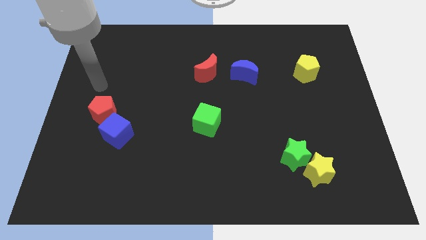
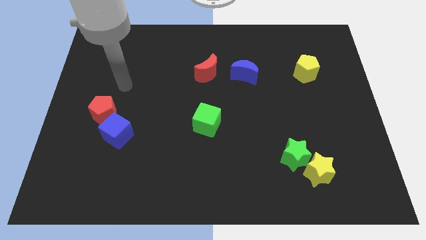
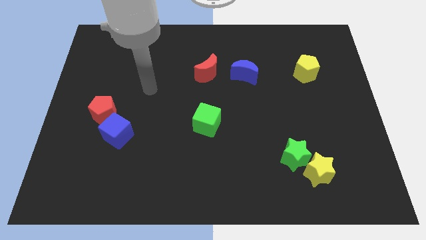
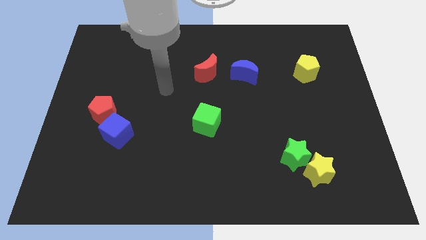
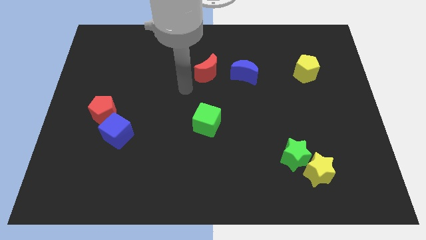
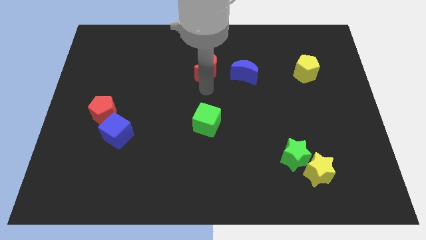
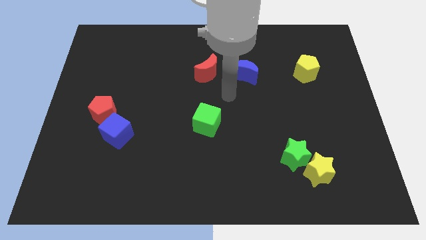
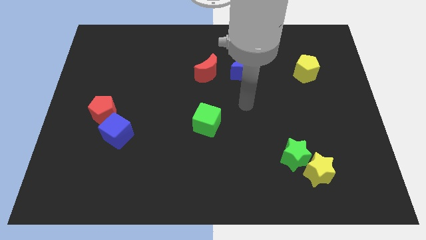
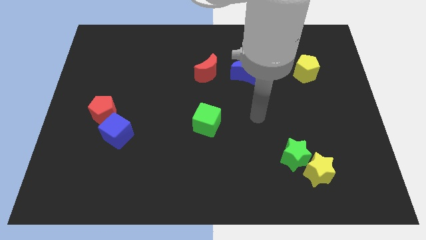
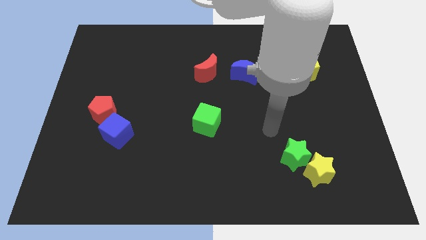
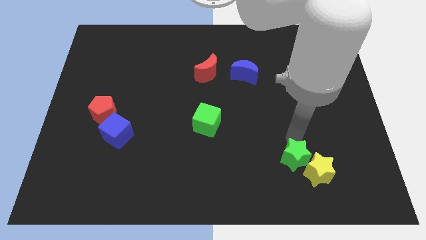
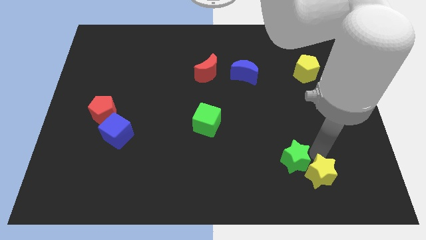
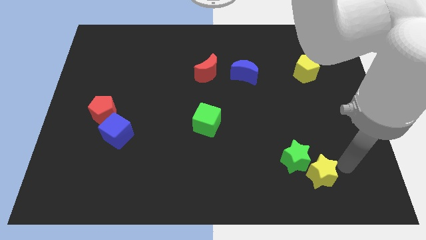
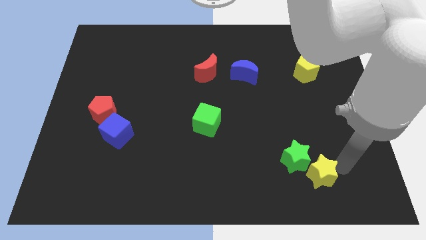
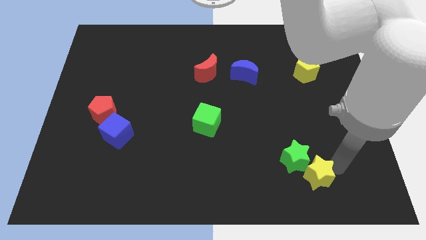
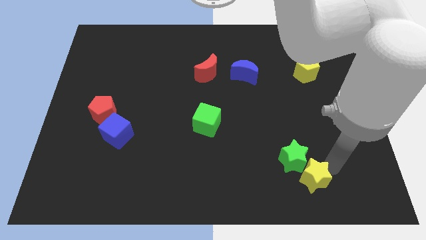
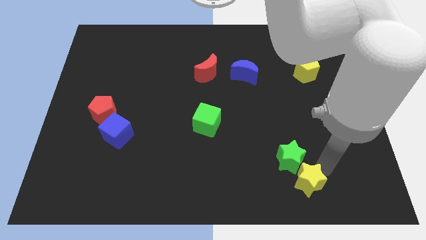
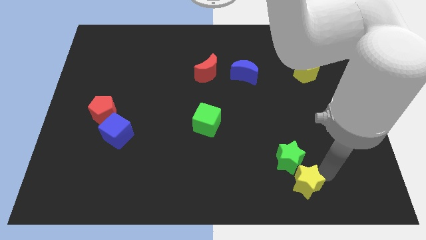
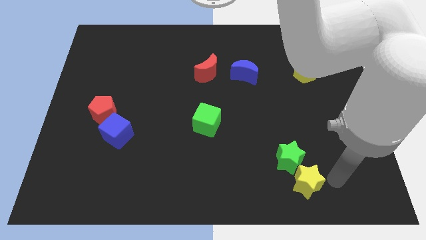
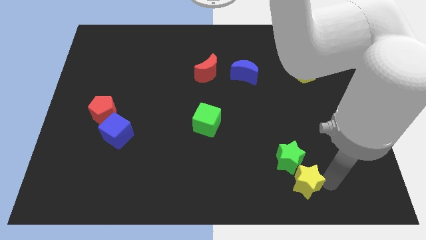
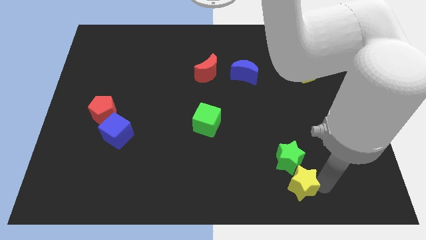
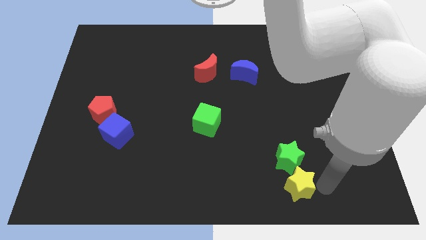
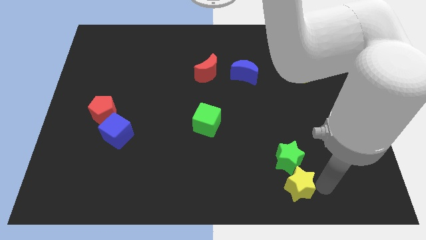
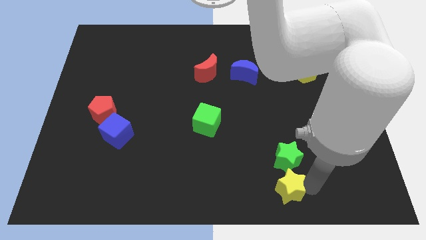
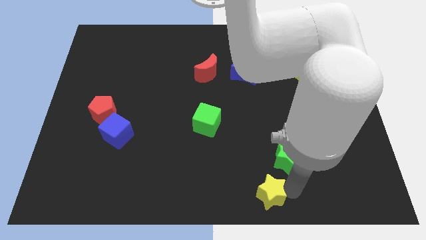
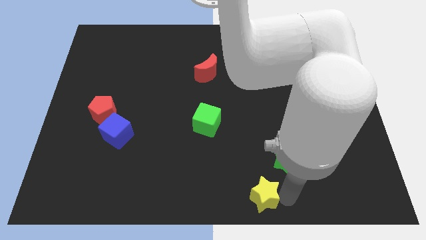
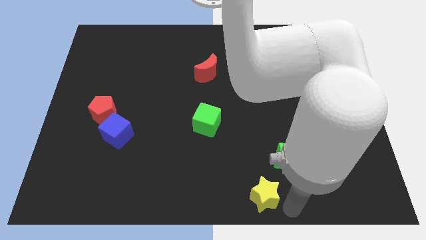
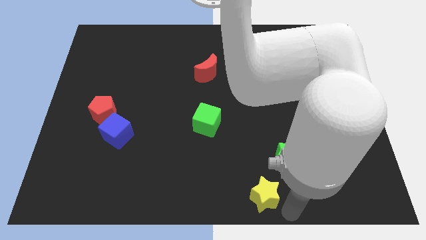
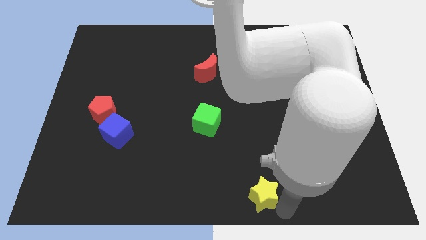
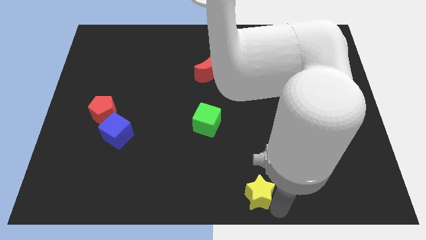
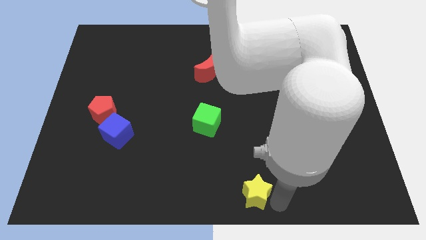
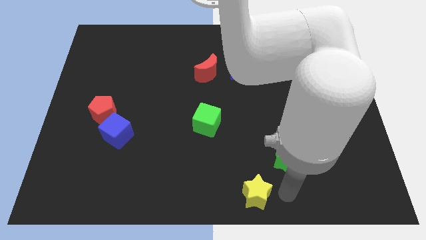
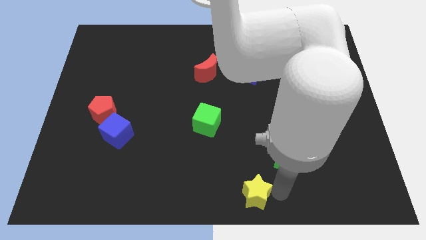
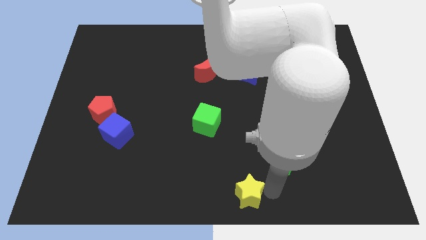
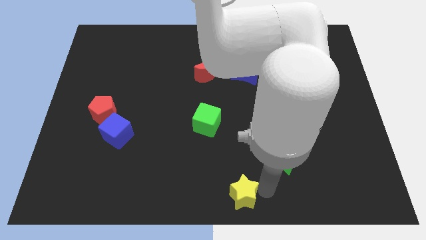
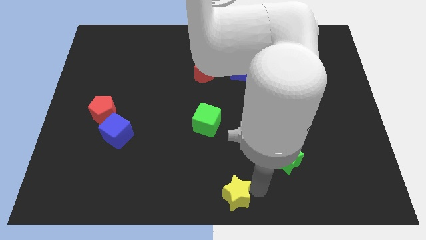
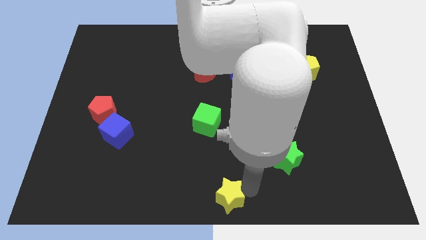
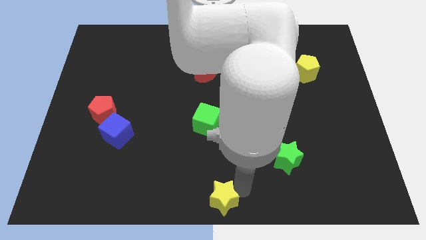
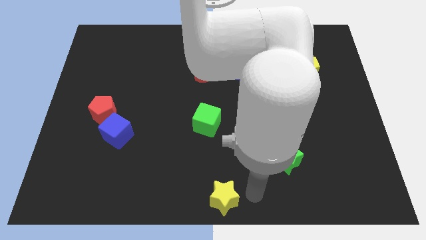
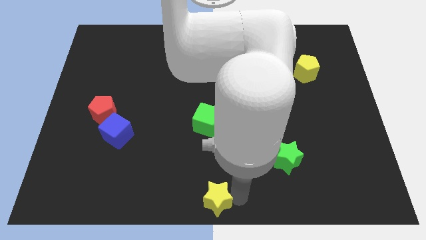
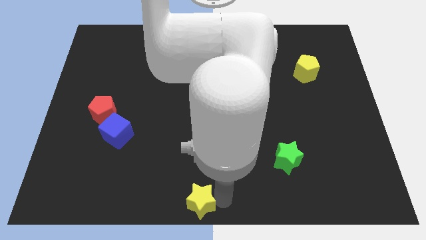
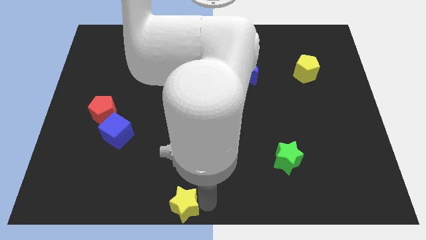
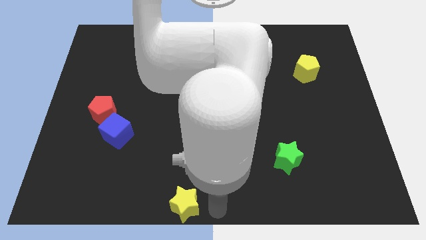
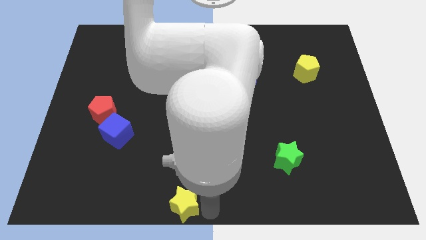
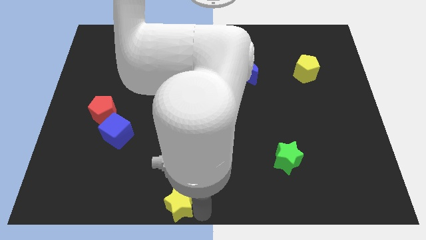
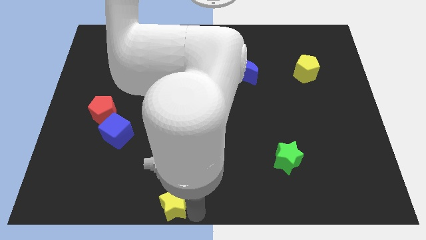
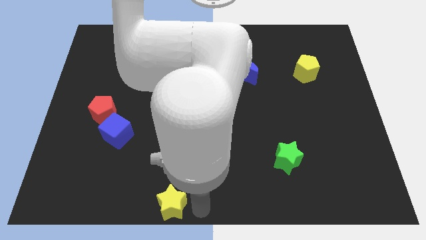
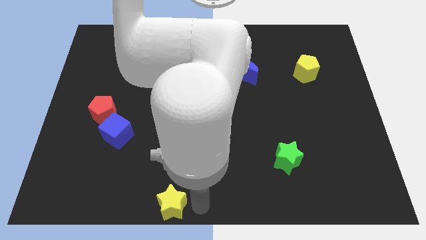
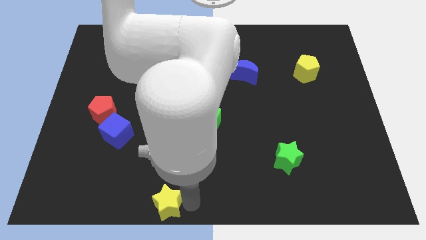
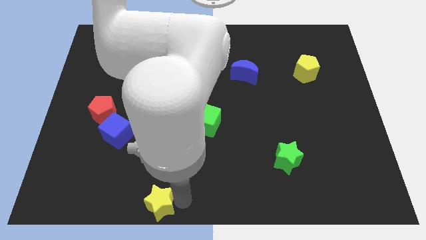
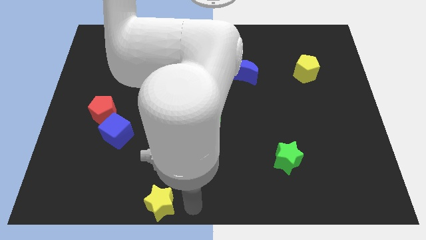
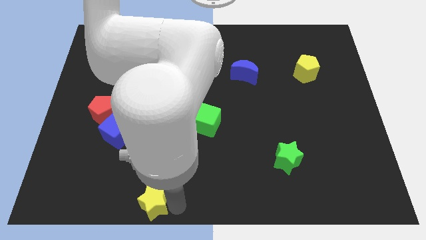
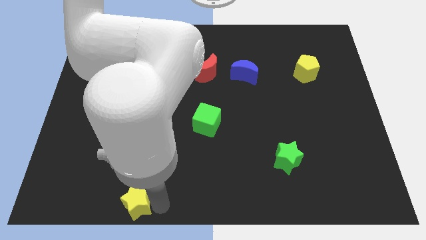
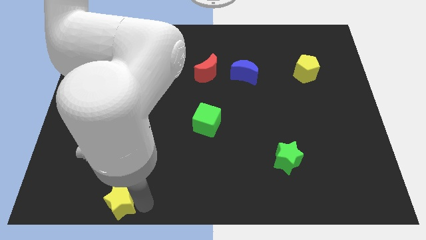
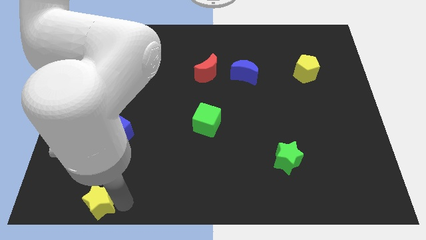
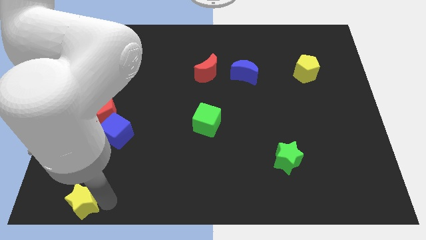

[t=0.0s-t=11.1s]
push the yellow star to the bottom left of the board

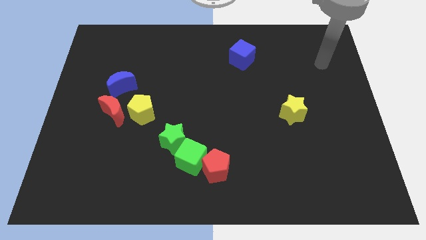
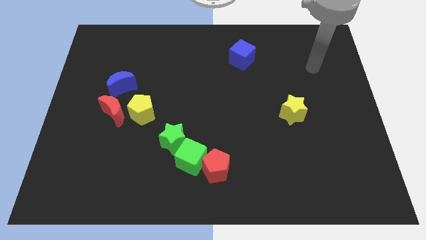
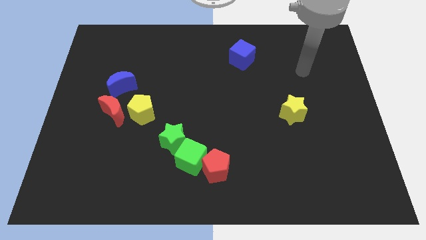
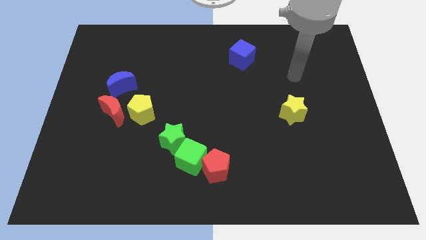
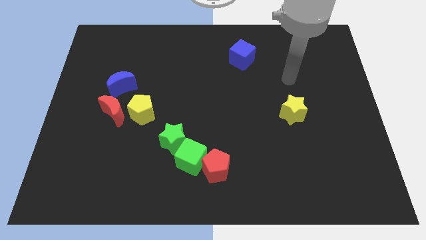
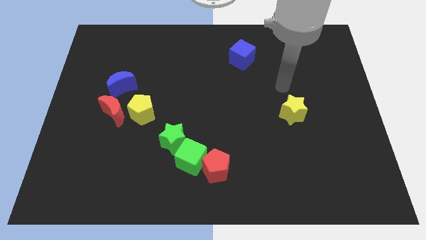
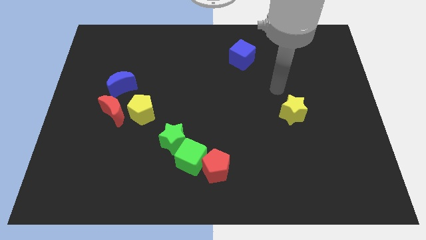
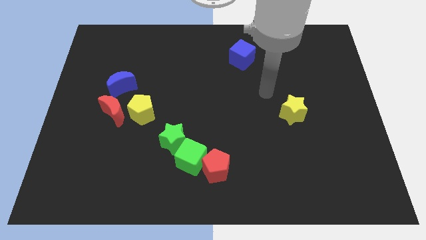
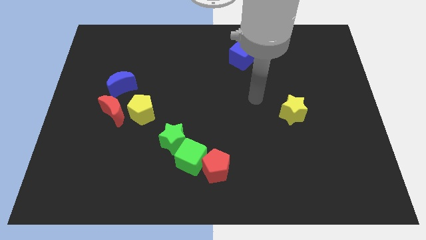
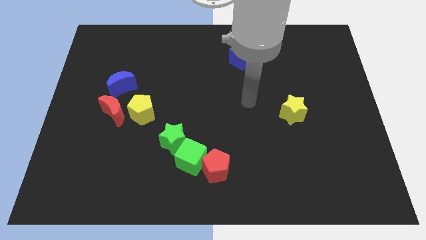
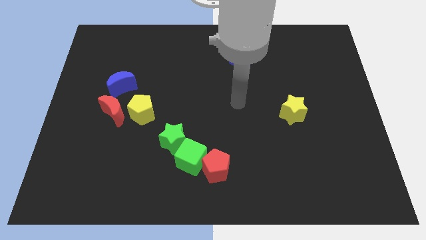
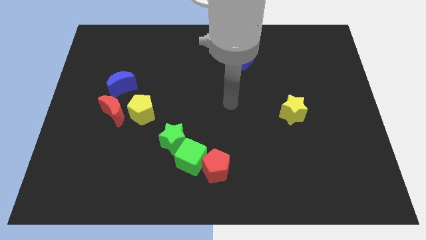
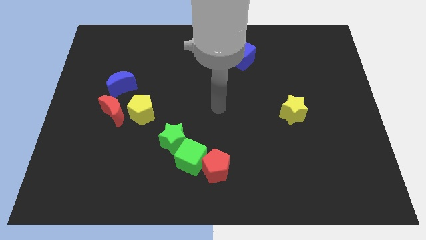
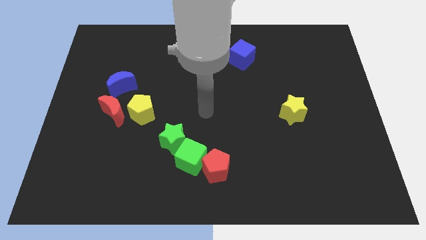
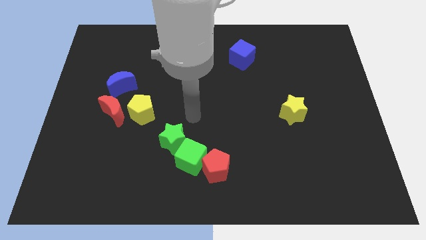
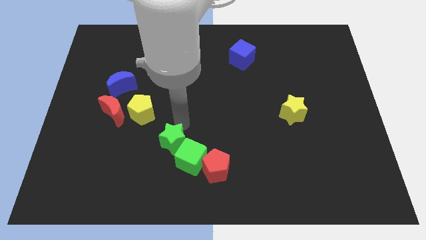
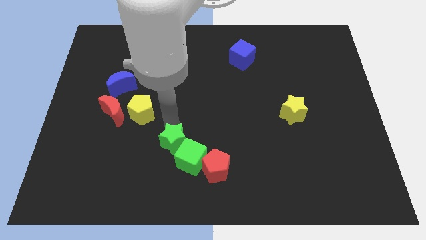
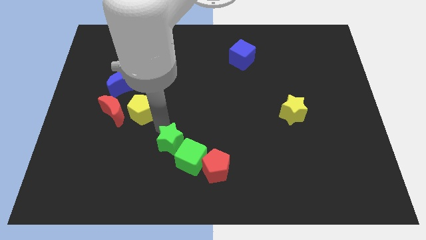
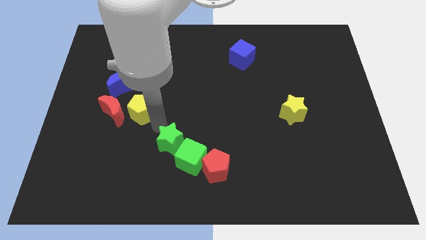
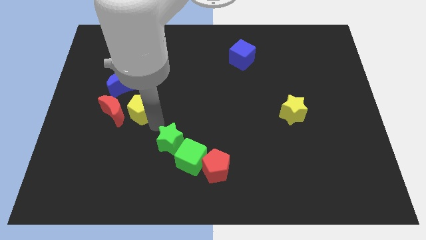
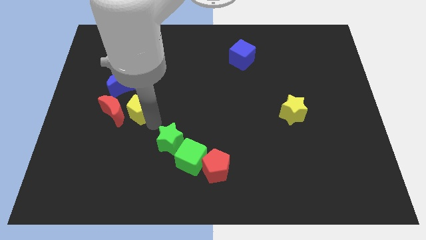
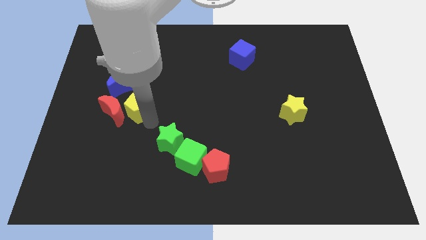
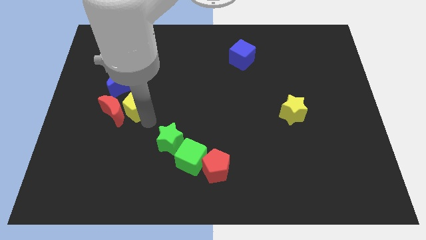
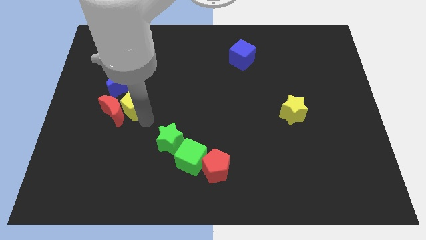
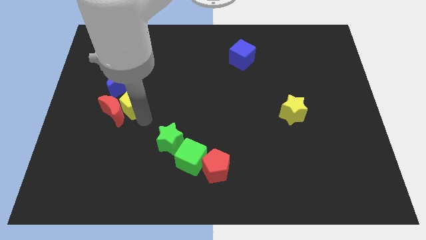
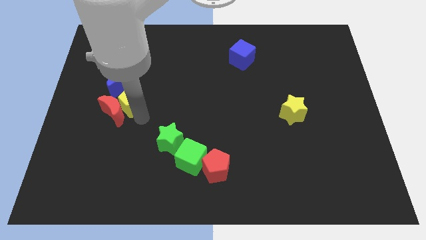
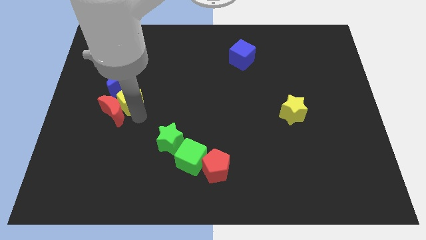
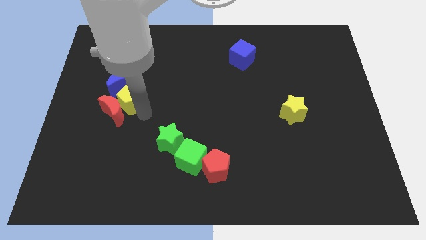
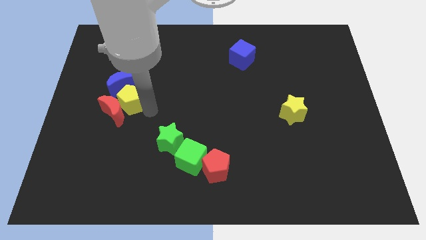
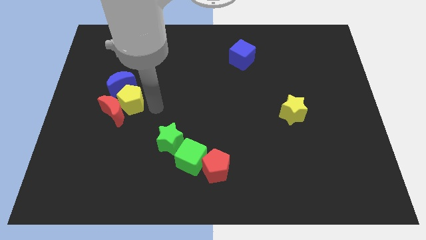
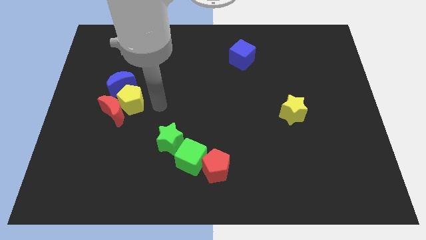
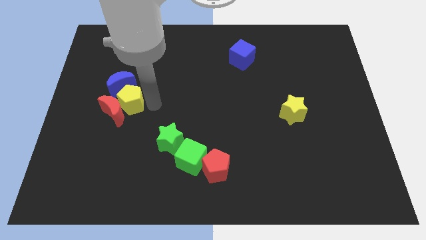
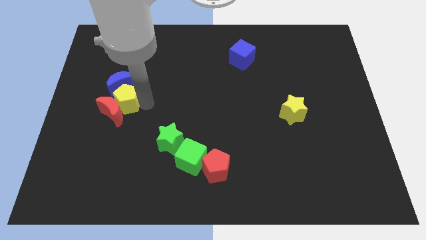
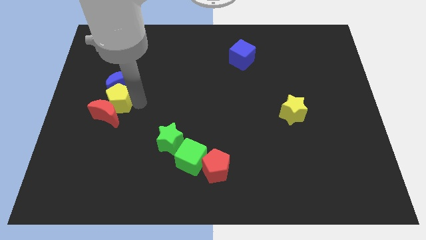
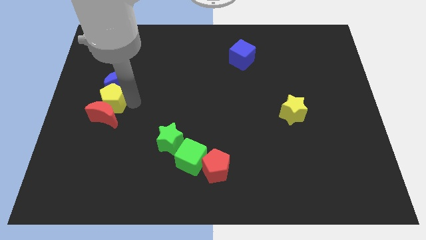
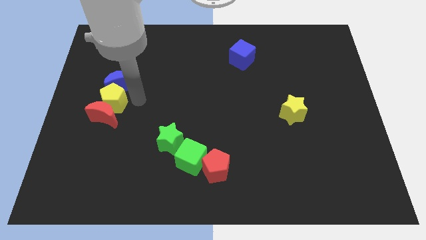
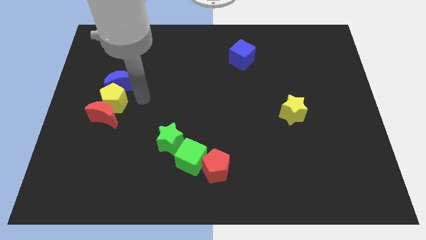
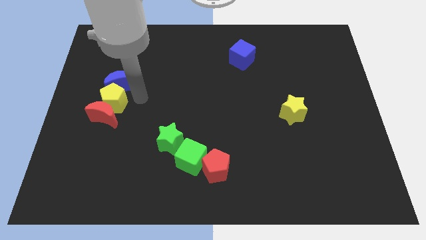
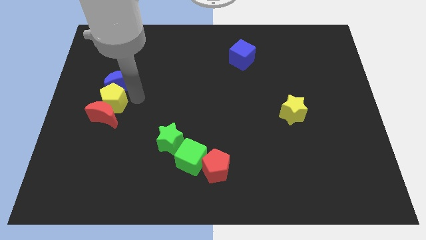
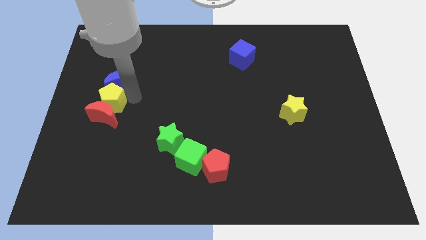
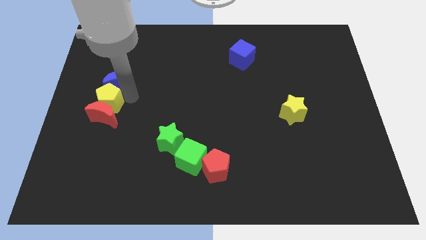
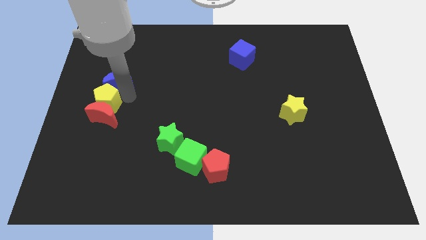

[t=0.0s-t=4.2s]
move the yellow pentagon to the left side
